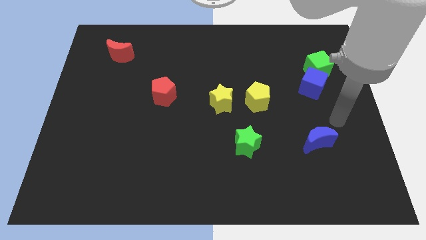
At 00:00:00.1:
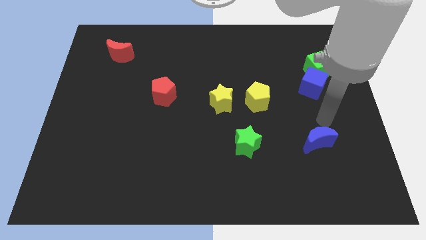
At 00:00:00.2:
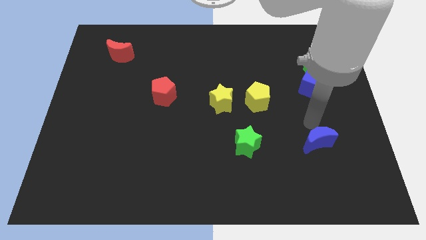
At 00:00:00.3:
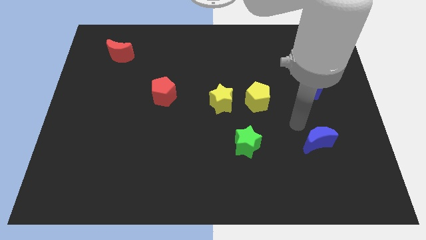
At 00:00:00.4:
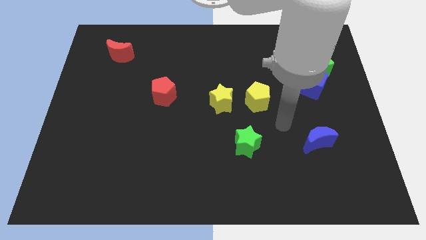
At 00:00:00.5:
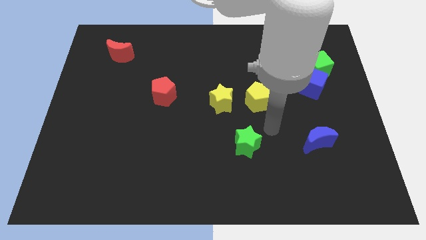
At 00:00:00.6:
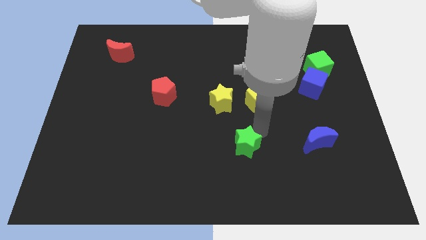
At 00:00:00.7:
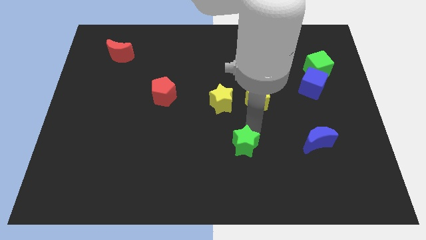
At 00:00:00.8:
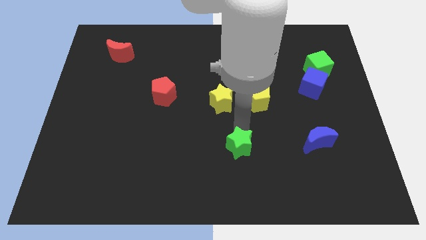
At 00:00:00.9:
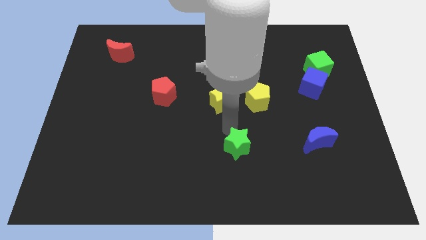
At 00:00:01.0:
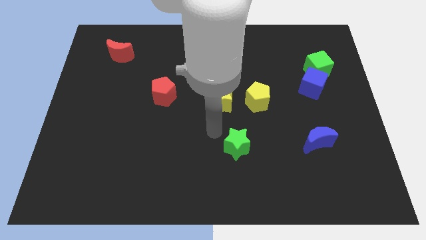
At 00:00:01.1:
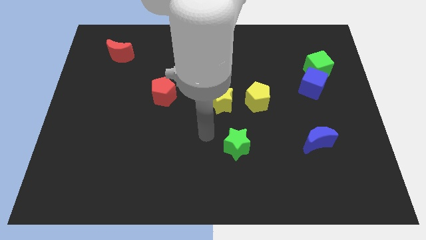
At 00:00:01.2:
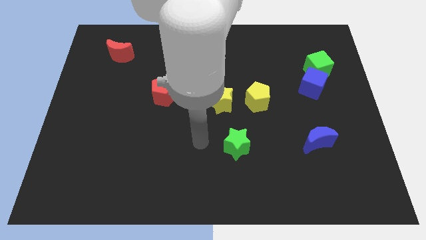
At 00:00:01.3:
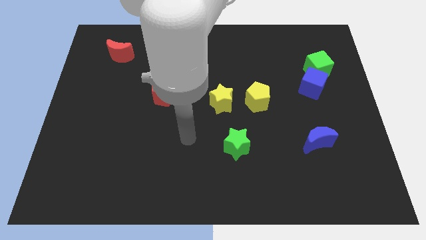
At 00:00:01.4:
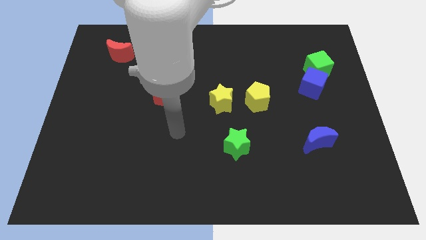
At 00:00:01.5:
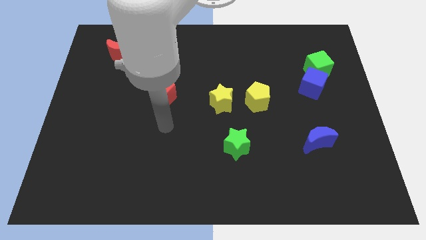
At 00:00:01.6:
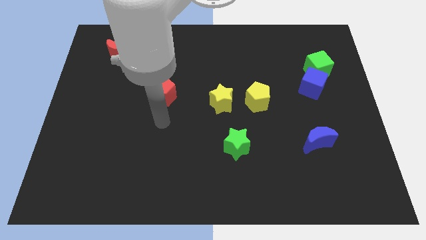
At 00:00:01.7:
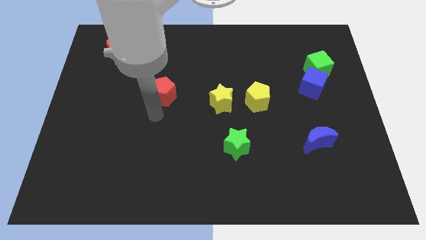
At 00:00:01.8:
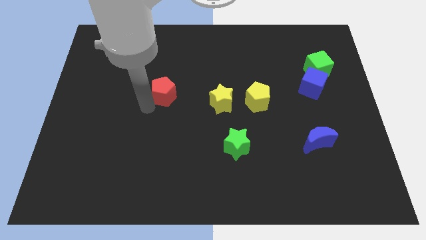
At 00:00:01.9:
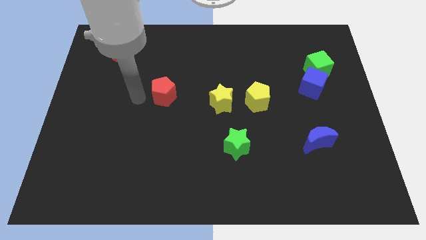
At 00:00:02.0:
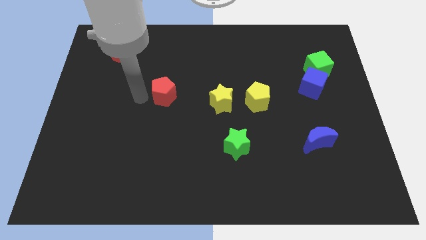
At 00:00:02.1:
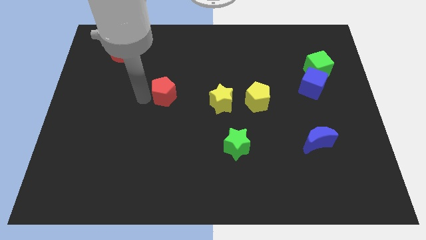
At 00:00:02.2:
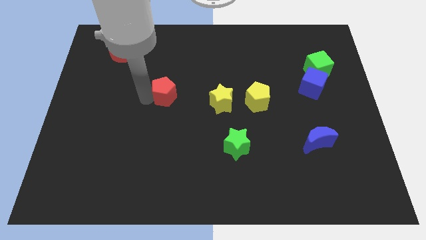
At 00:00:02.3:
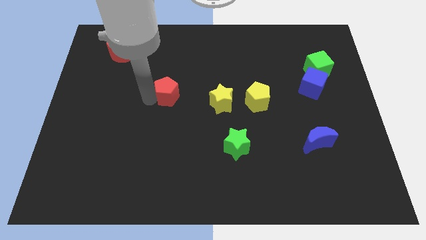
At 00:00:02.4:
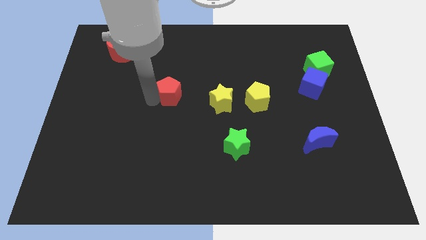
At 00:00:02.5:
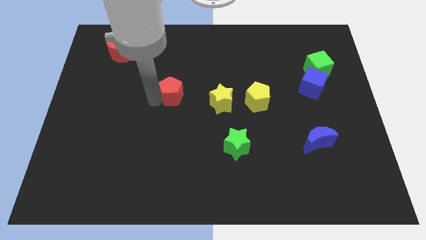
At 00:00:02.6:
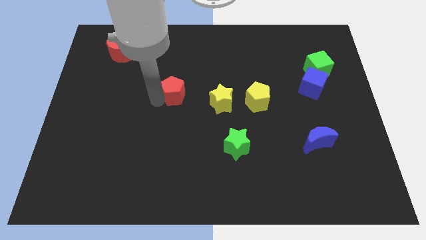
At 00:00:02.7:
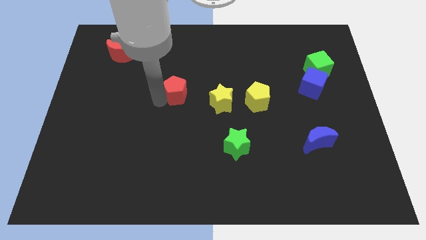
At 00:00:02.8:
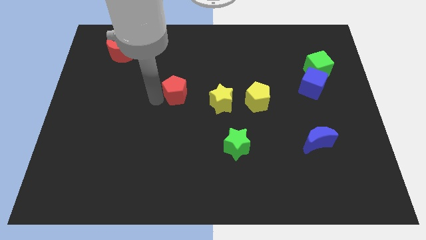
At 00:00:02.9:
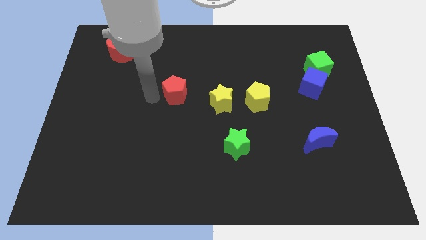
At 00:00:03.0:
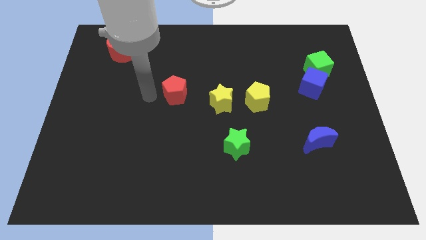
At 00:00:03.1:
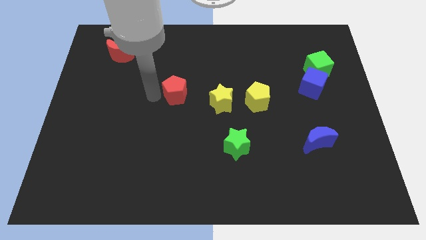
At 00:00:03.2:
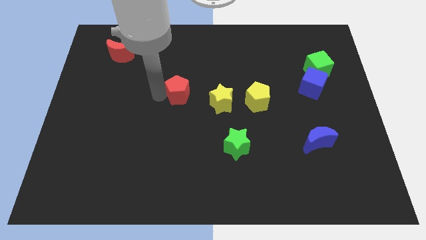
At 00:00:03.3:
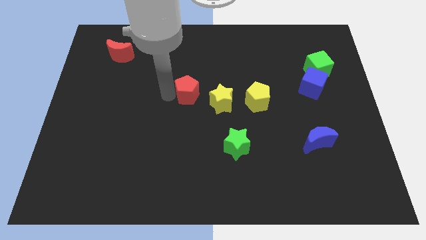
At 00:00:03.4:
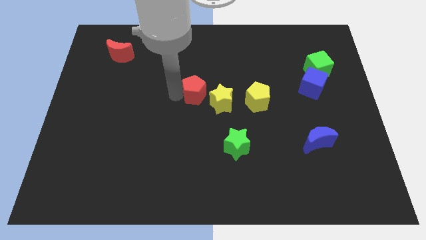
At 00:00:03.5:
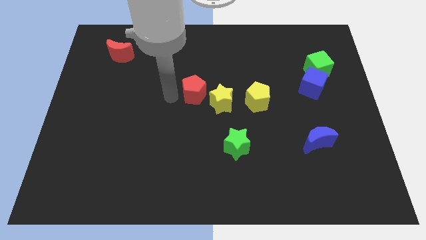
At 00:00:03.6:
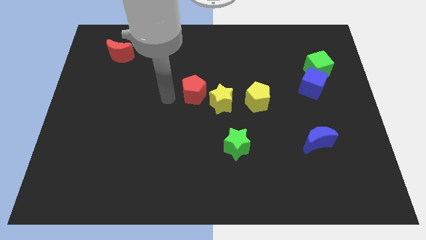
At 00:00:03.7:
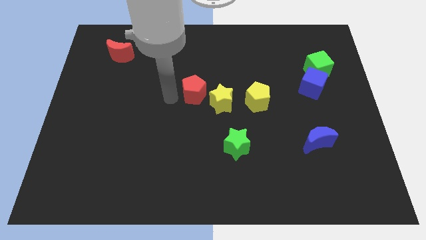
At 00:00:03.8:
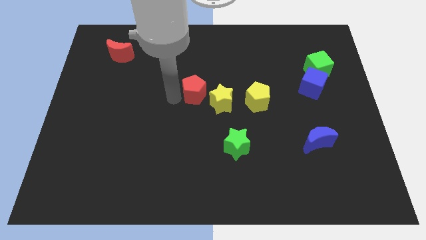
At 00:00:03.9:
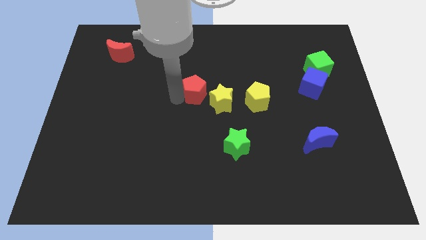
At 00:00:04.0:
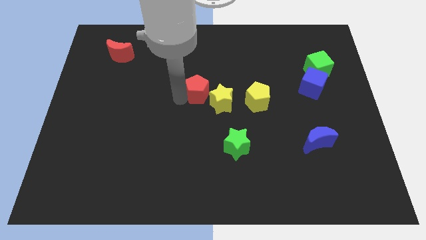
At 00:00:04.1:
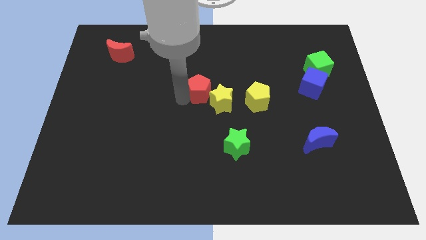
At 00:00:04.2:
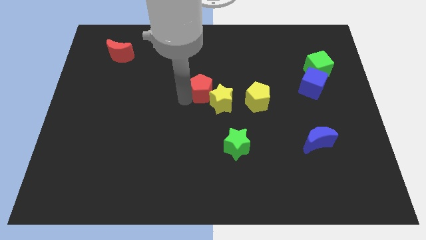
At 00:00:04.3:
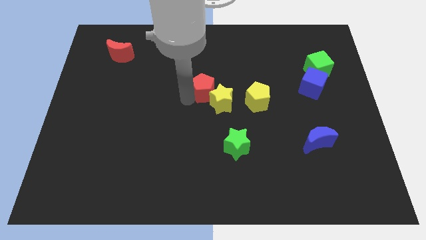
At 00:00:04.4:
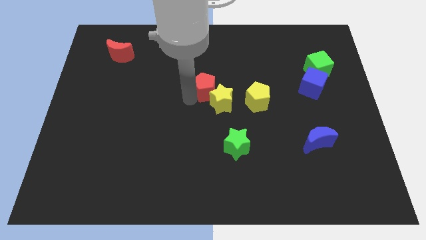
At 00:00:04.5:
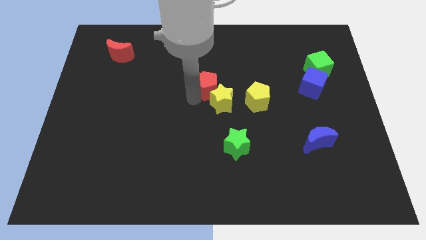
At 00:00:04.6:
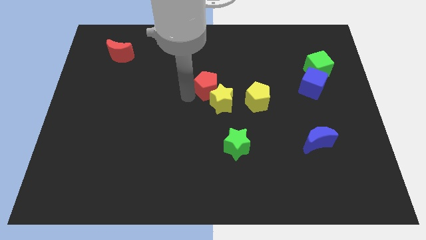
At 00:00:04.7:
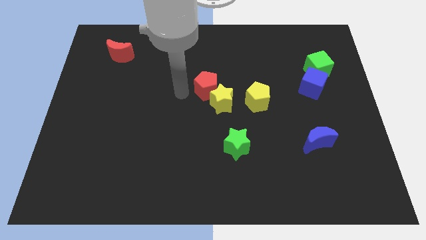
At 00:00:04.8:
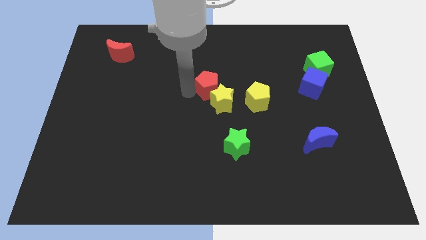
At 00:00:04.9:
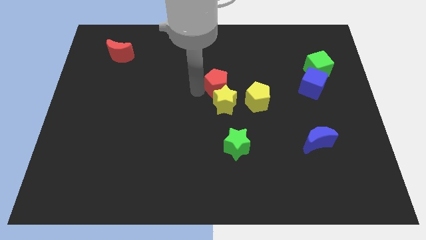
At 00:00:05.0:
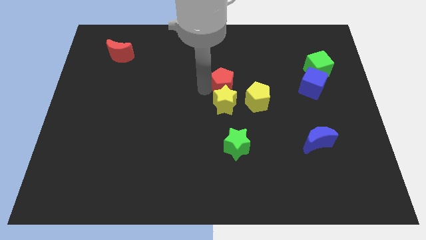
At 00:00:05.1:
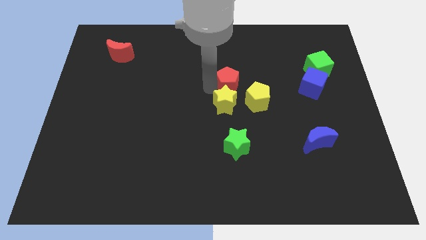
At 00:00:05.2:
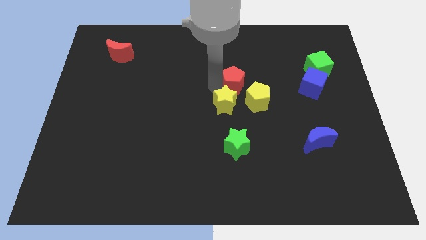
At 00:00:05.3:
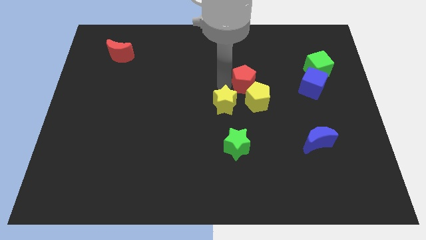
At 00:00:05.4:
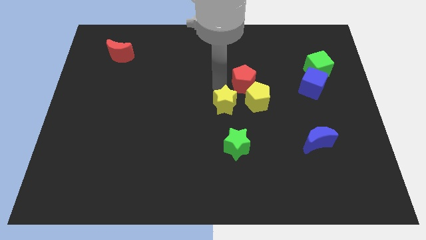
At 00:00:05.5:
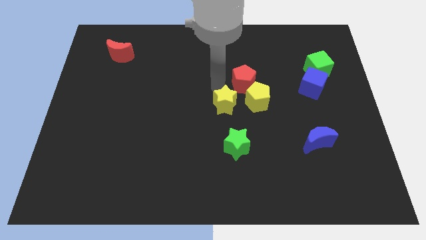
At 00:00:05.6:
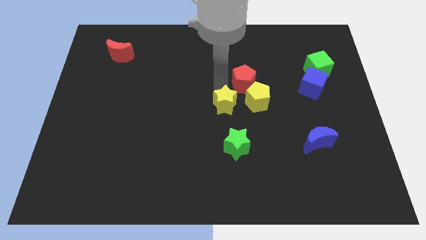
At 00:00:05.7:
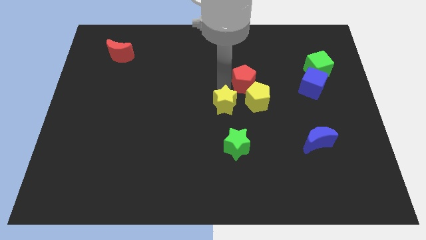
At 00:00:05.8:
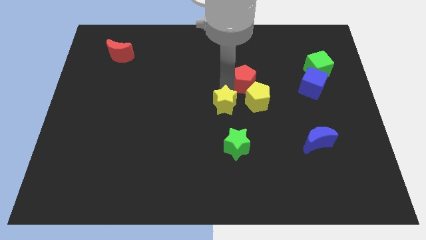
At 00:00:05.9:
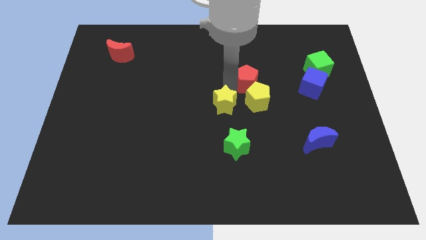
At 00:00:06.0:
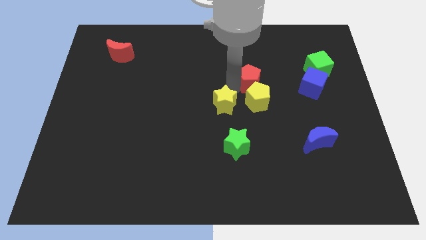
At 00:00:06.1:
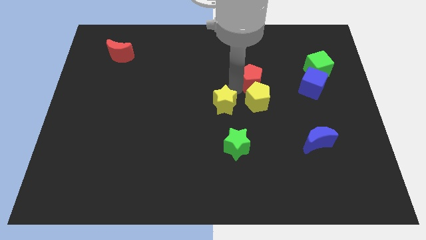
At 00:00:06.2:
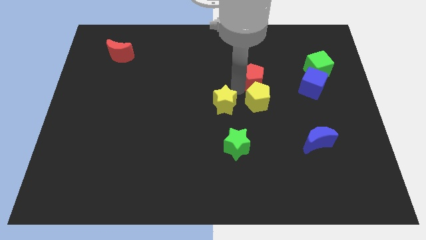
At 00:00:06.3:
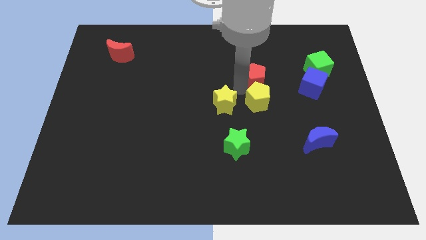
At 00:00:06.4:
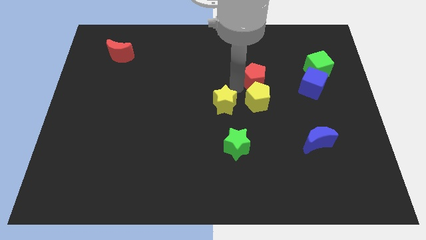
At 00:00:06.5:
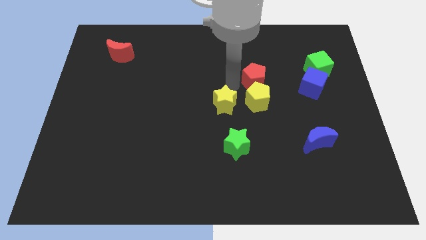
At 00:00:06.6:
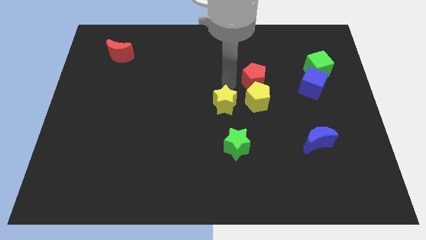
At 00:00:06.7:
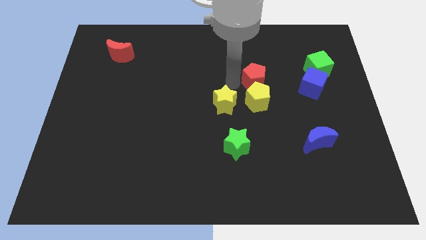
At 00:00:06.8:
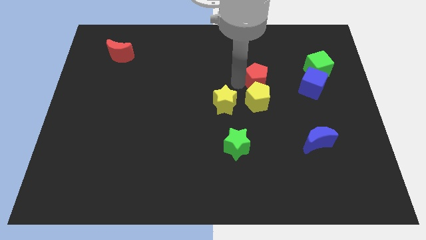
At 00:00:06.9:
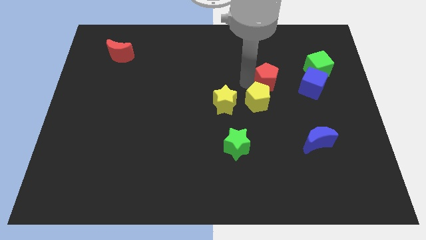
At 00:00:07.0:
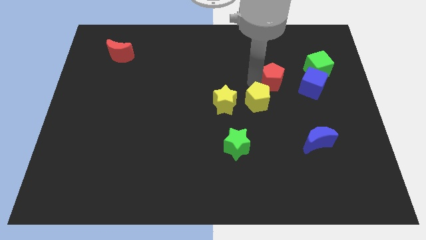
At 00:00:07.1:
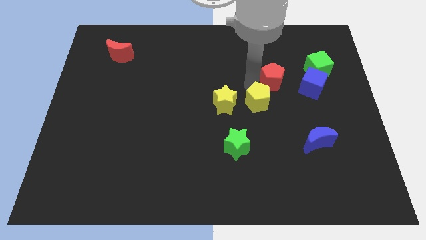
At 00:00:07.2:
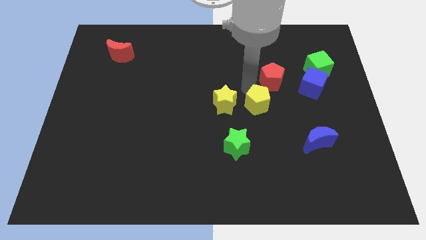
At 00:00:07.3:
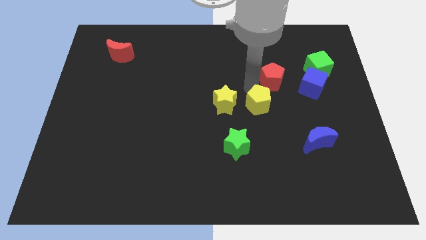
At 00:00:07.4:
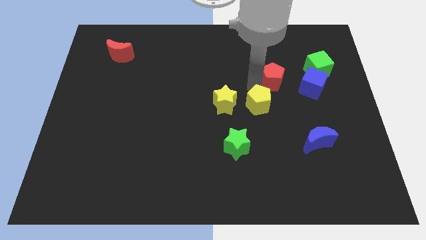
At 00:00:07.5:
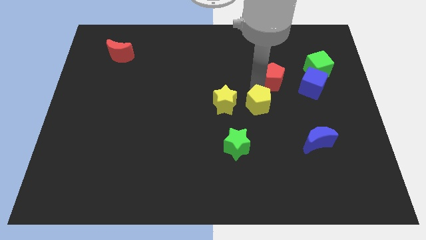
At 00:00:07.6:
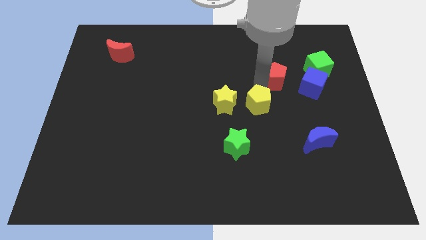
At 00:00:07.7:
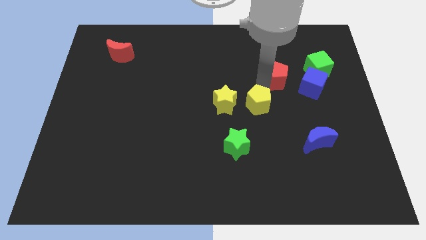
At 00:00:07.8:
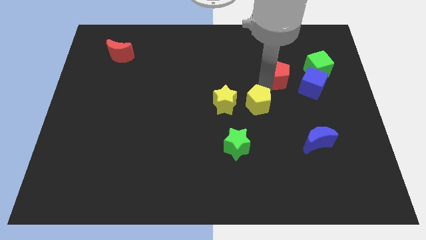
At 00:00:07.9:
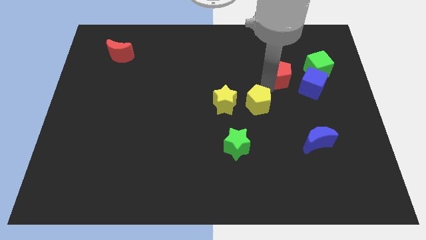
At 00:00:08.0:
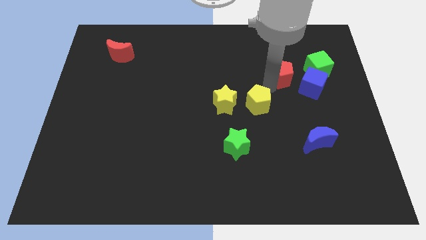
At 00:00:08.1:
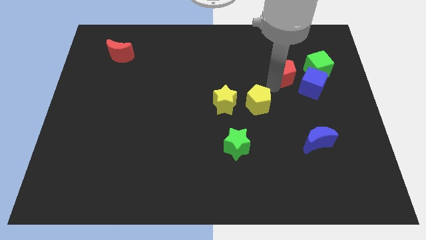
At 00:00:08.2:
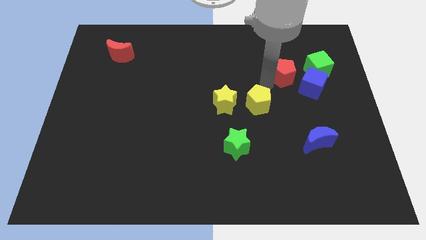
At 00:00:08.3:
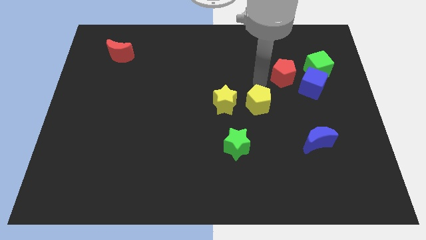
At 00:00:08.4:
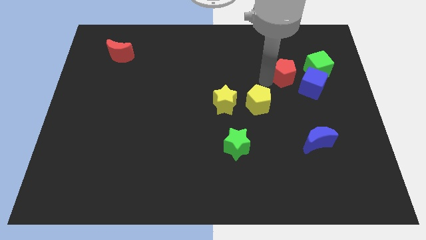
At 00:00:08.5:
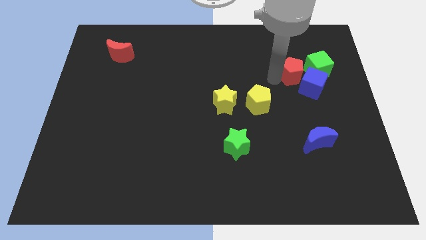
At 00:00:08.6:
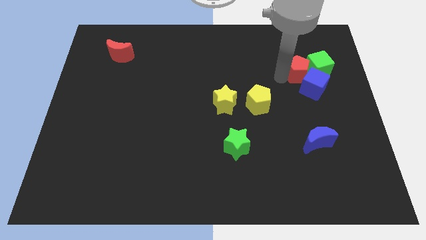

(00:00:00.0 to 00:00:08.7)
move the red pentagon close to the green cube
